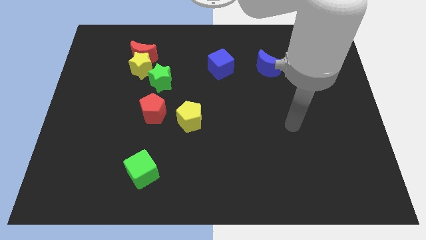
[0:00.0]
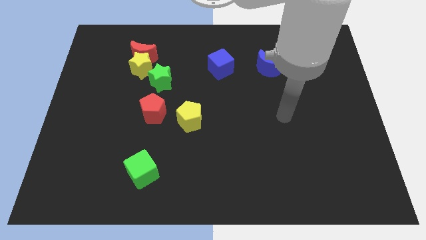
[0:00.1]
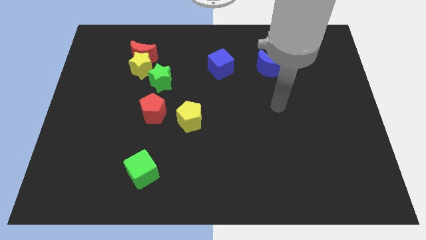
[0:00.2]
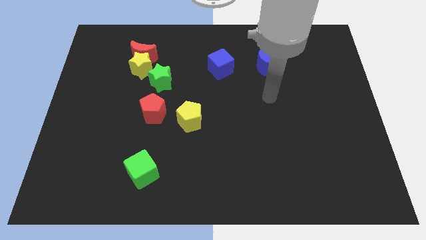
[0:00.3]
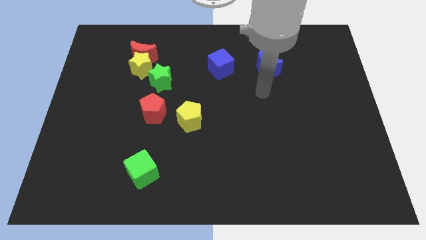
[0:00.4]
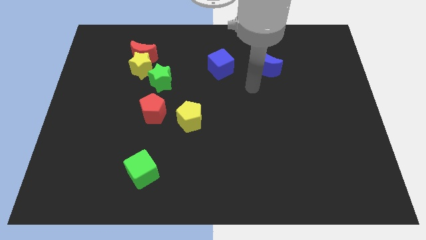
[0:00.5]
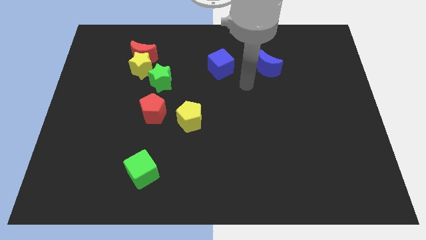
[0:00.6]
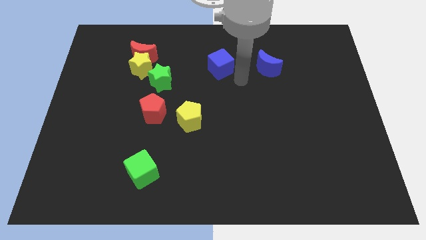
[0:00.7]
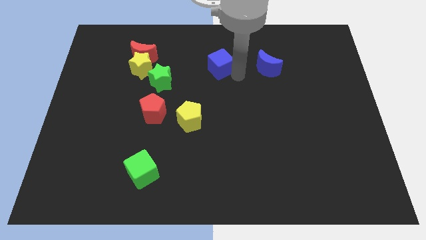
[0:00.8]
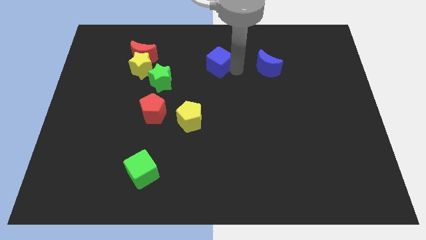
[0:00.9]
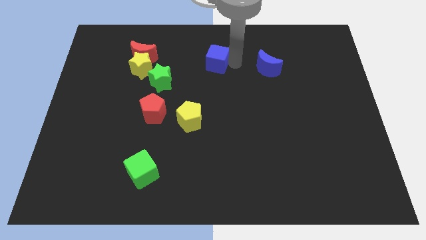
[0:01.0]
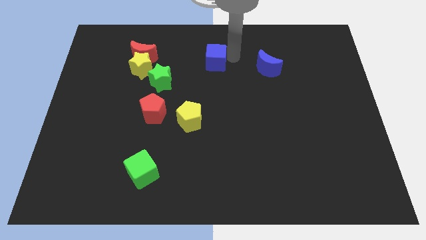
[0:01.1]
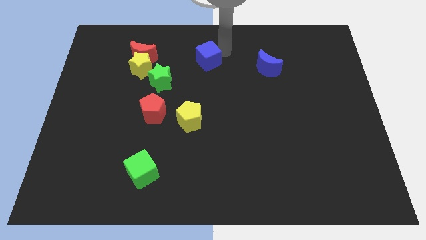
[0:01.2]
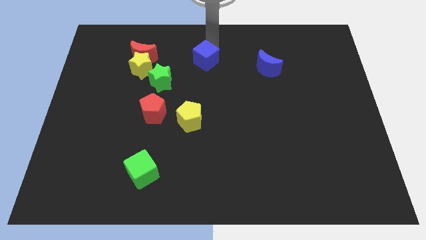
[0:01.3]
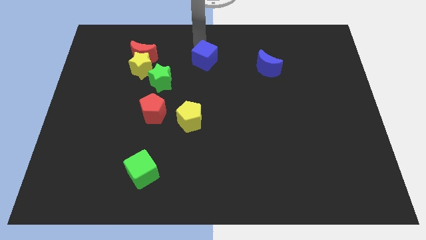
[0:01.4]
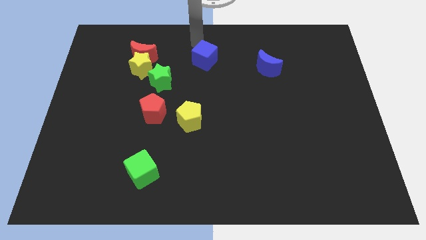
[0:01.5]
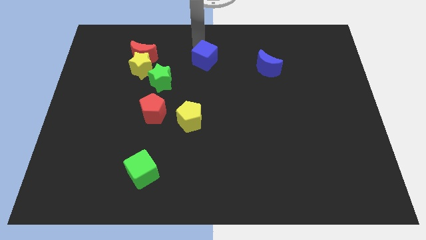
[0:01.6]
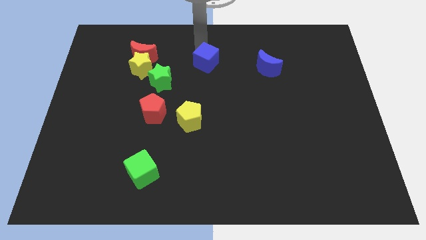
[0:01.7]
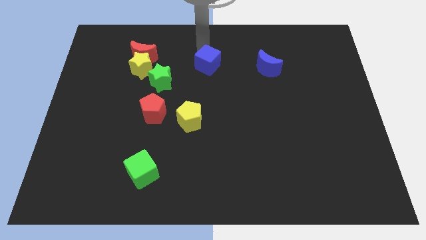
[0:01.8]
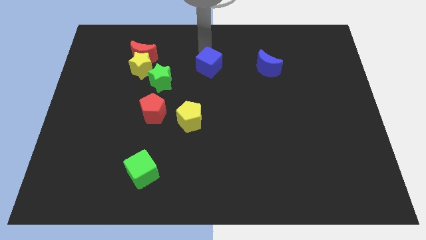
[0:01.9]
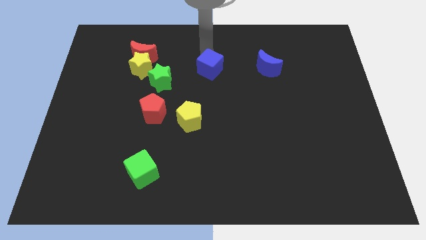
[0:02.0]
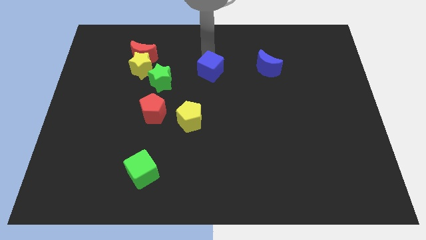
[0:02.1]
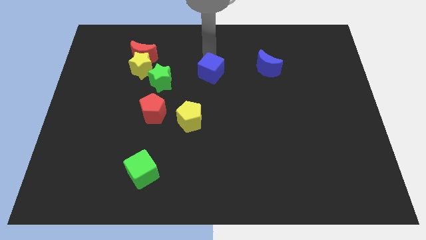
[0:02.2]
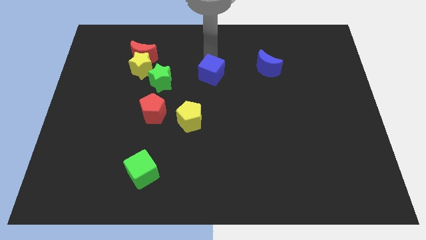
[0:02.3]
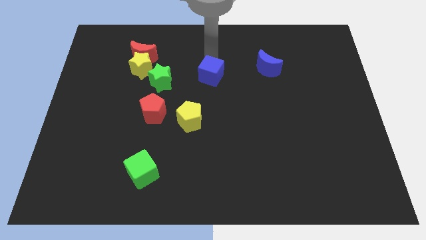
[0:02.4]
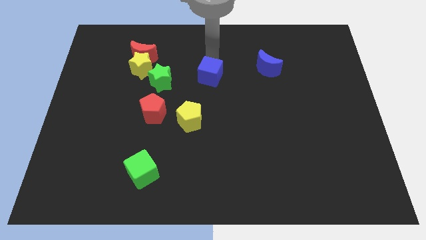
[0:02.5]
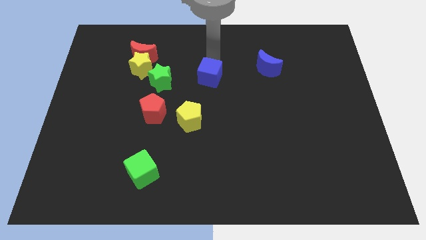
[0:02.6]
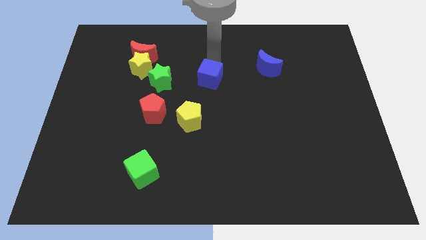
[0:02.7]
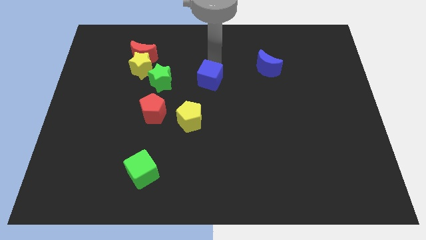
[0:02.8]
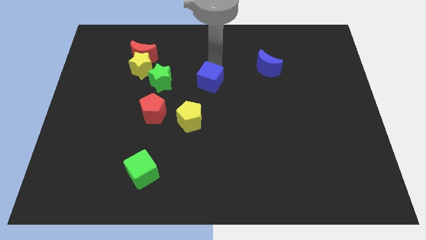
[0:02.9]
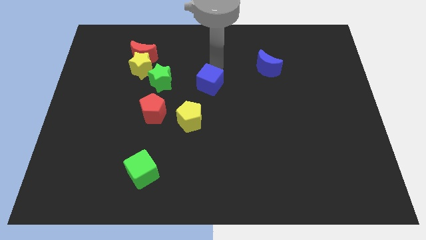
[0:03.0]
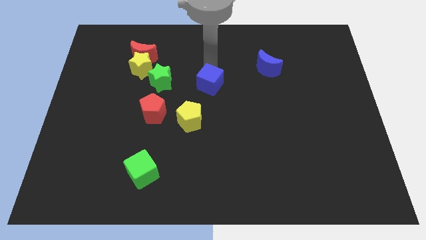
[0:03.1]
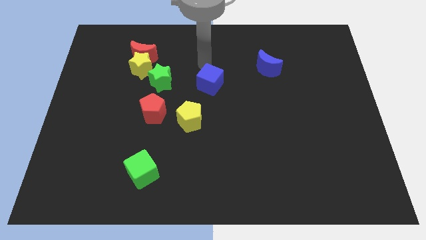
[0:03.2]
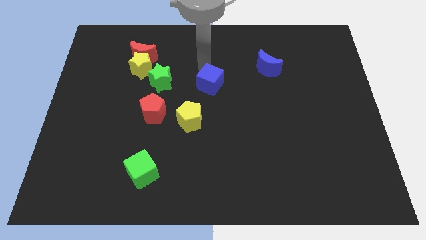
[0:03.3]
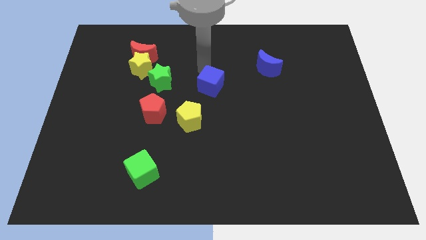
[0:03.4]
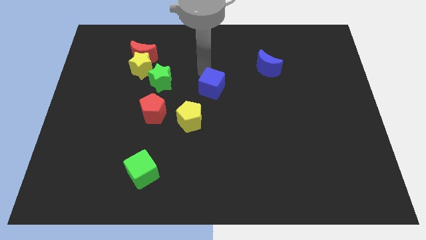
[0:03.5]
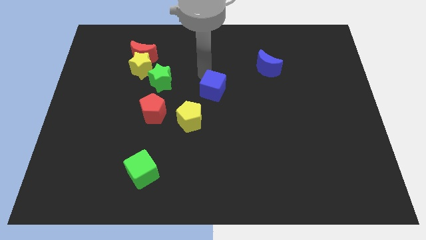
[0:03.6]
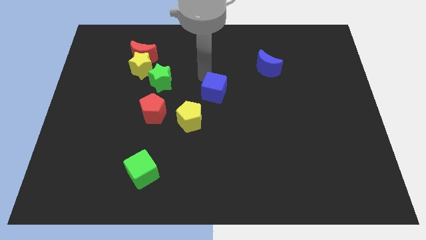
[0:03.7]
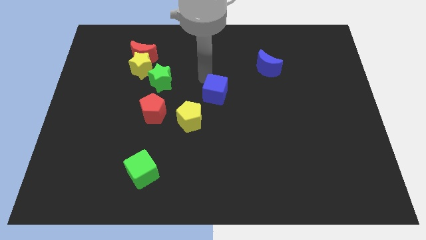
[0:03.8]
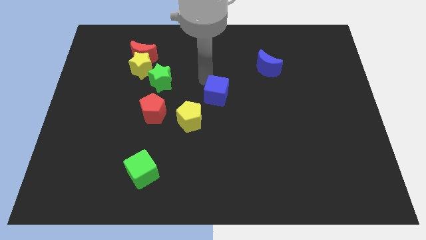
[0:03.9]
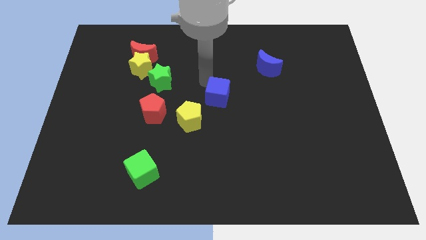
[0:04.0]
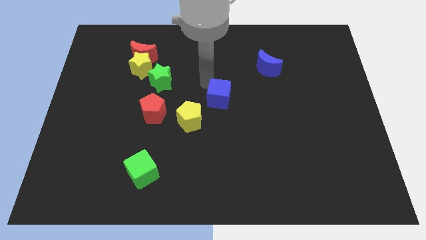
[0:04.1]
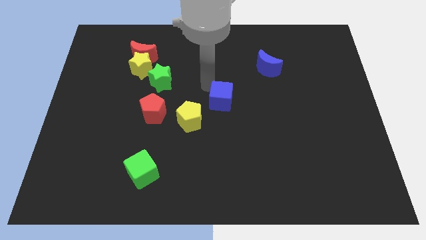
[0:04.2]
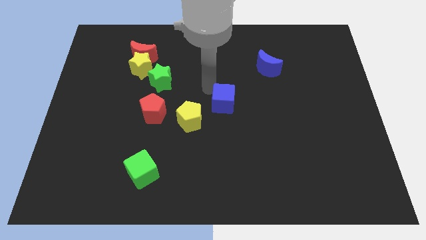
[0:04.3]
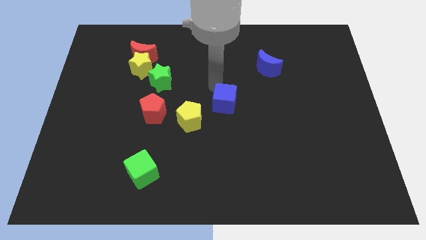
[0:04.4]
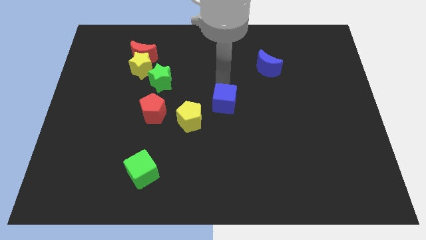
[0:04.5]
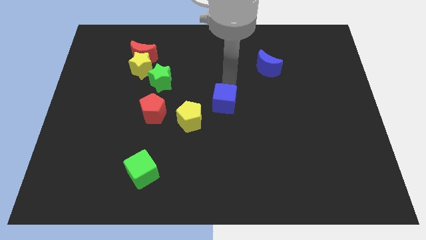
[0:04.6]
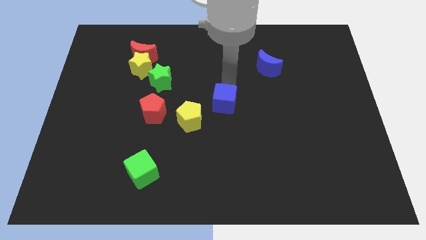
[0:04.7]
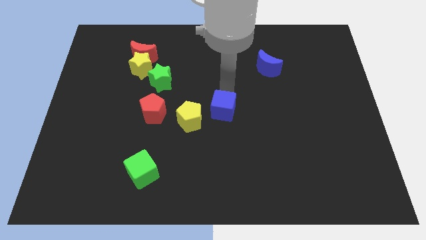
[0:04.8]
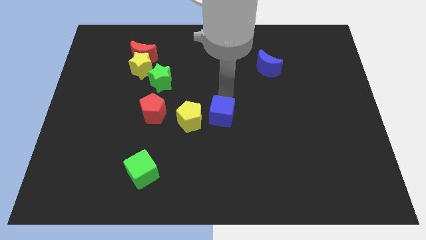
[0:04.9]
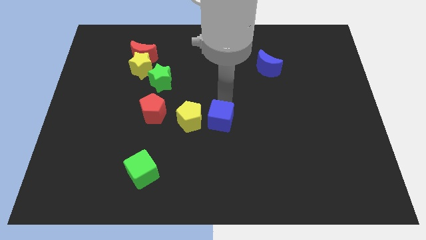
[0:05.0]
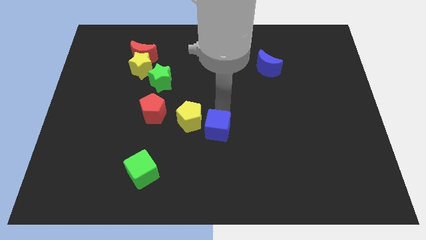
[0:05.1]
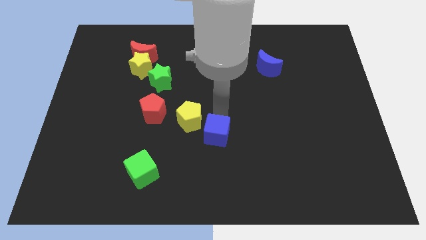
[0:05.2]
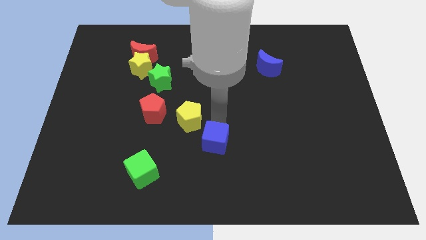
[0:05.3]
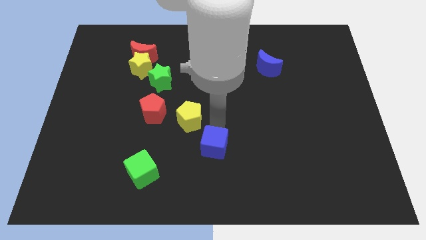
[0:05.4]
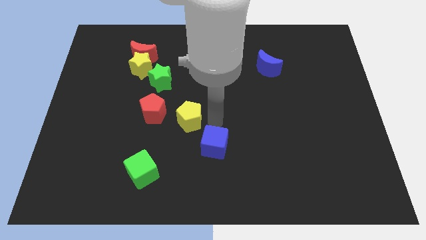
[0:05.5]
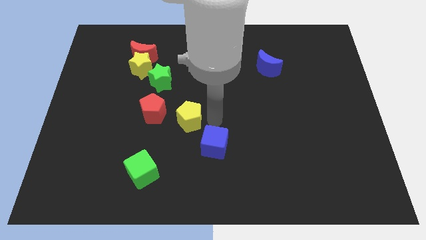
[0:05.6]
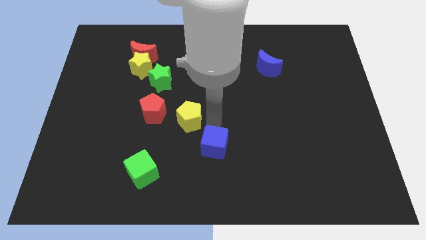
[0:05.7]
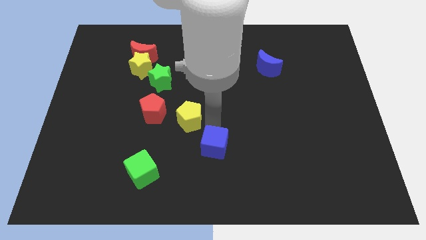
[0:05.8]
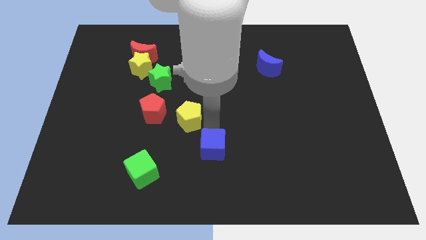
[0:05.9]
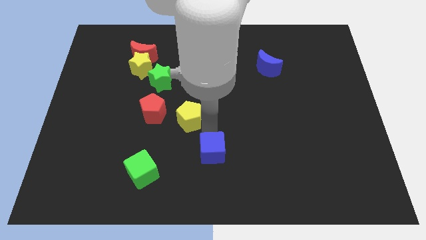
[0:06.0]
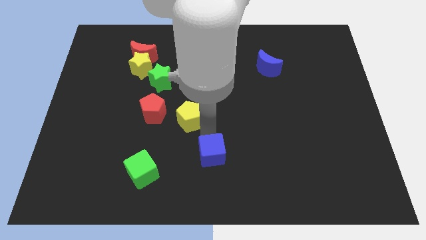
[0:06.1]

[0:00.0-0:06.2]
move the blue cube to the bottom side
